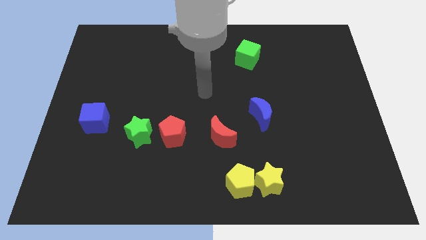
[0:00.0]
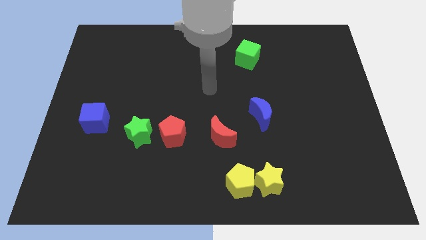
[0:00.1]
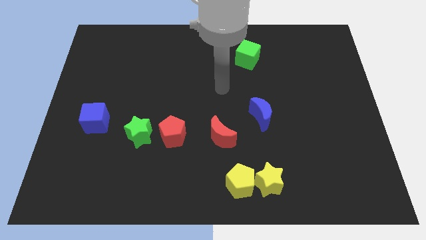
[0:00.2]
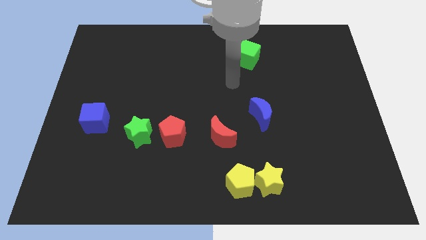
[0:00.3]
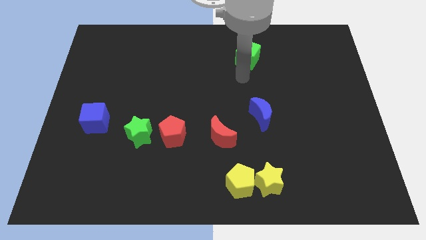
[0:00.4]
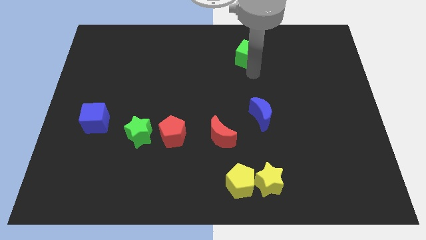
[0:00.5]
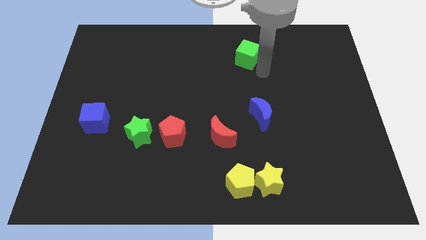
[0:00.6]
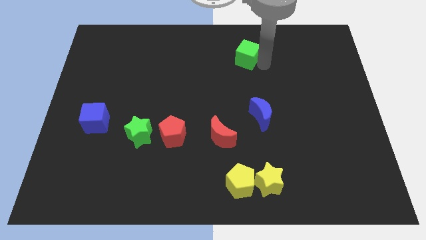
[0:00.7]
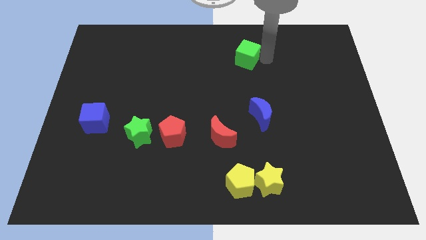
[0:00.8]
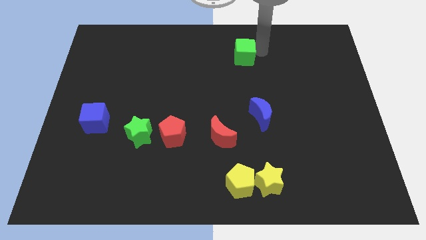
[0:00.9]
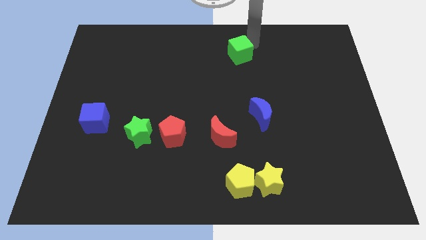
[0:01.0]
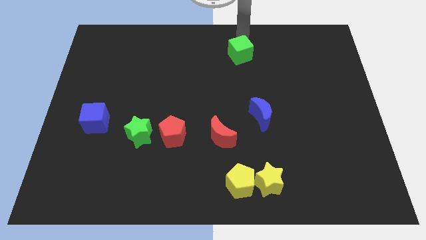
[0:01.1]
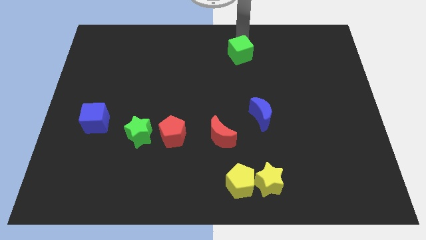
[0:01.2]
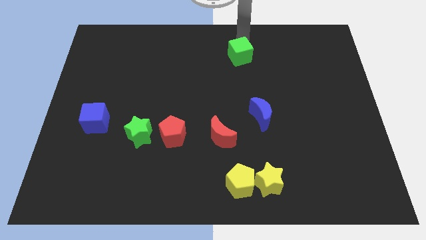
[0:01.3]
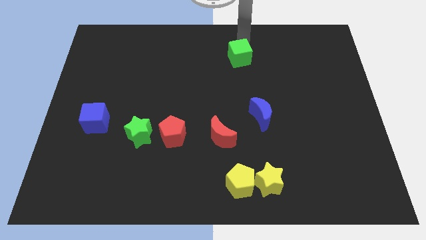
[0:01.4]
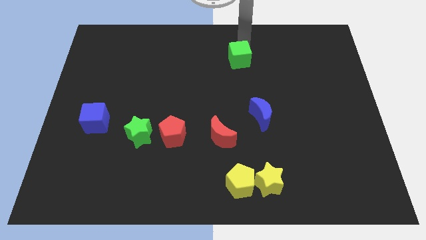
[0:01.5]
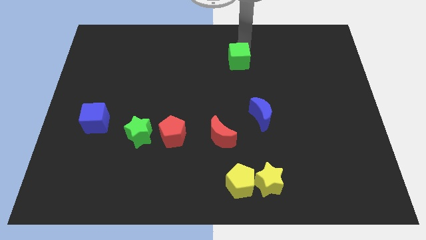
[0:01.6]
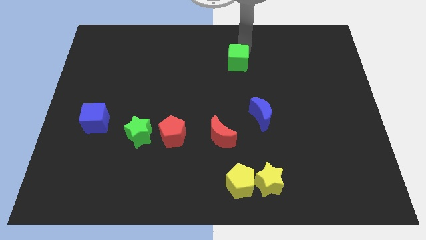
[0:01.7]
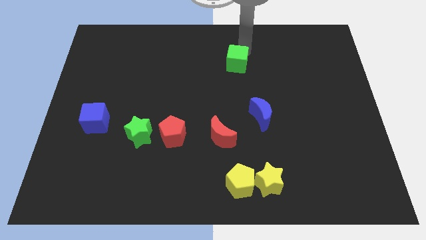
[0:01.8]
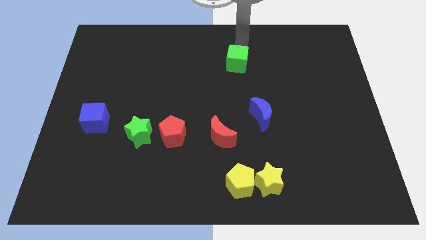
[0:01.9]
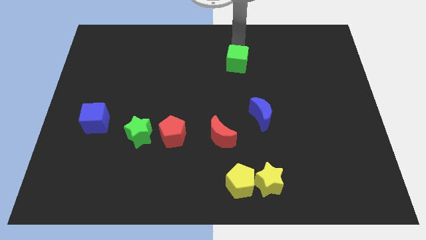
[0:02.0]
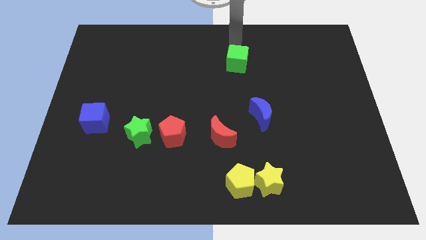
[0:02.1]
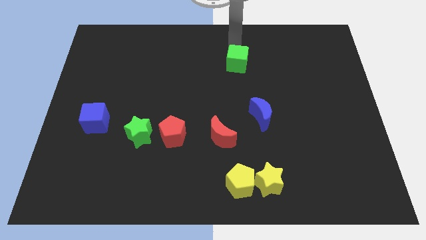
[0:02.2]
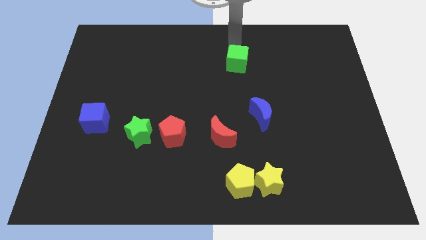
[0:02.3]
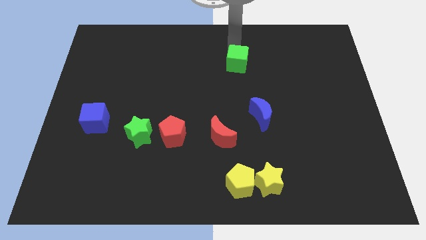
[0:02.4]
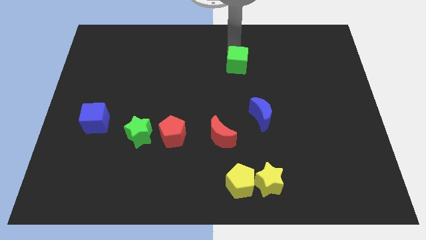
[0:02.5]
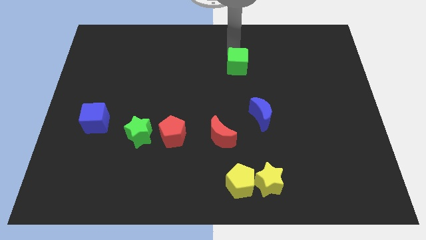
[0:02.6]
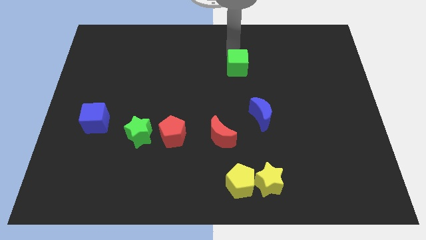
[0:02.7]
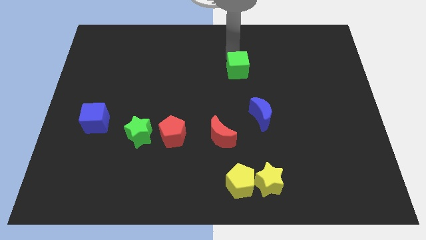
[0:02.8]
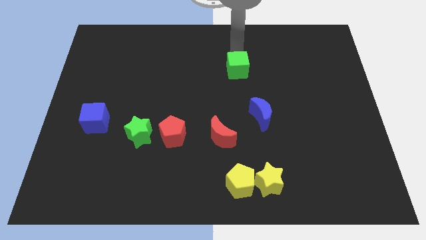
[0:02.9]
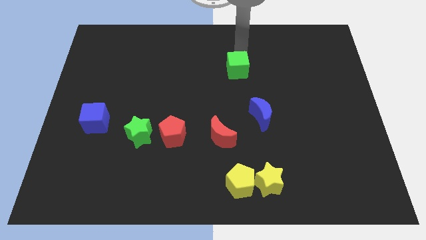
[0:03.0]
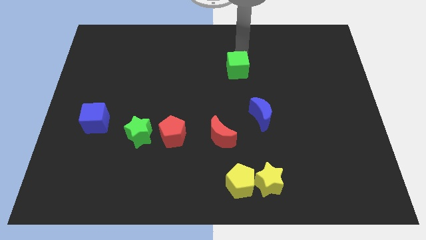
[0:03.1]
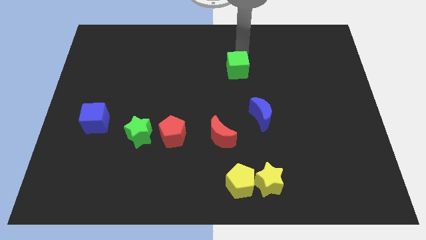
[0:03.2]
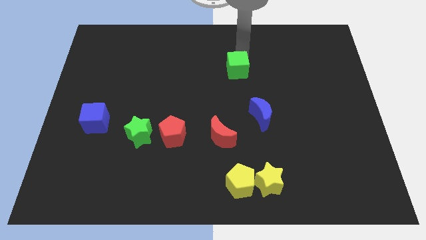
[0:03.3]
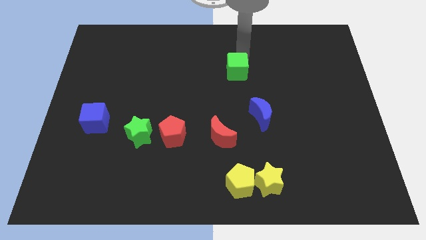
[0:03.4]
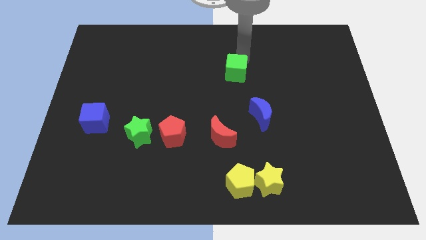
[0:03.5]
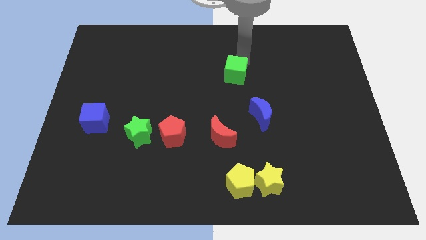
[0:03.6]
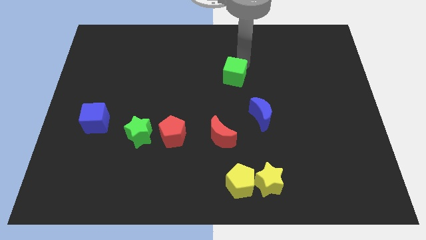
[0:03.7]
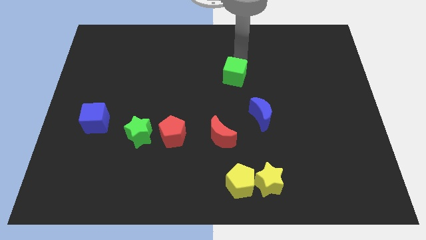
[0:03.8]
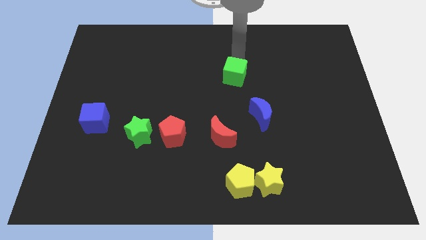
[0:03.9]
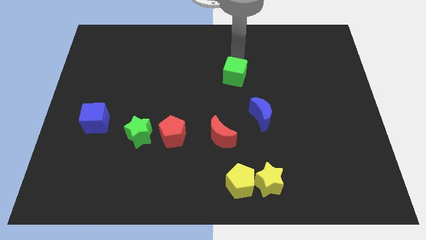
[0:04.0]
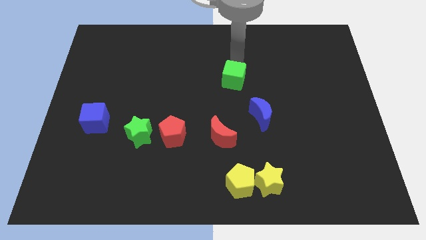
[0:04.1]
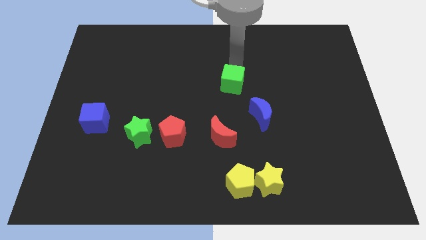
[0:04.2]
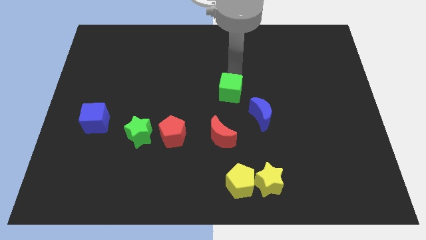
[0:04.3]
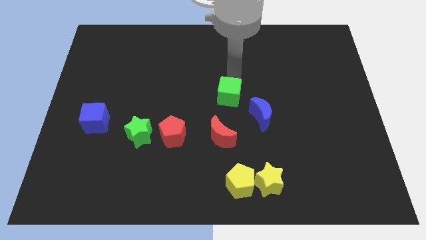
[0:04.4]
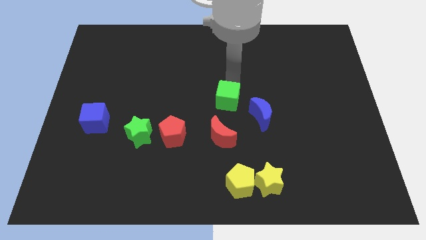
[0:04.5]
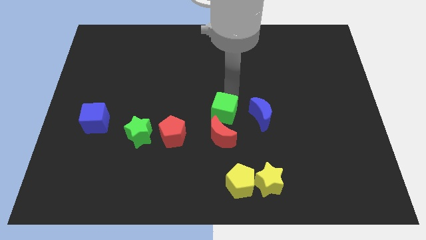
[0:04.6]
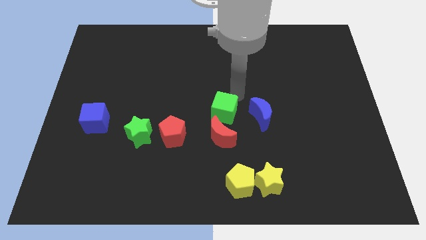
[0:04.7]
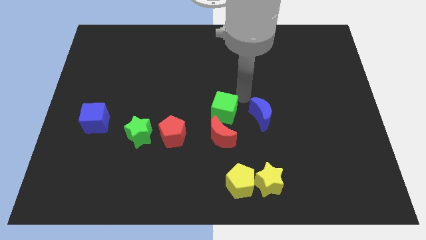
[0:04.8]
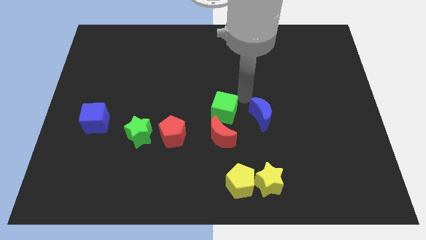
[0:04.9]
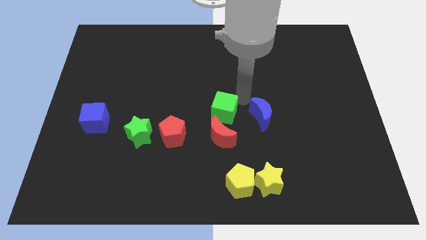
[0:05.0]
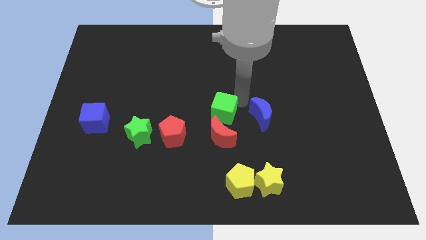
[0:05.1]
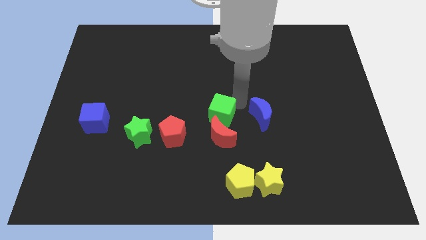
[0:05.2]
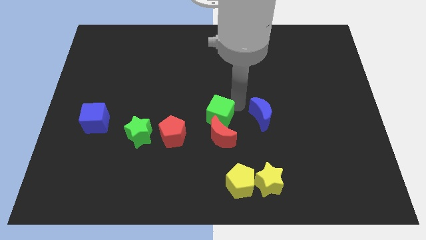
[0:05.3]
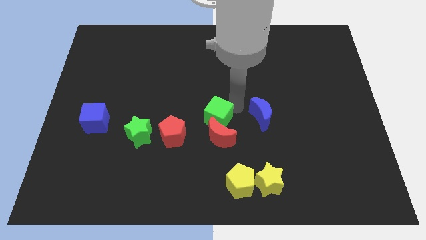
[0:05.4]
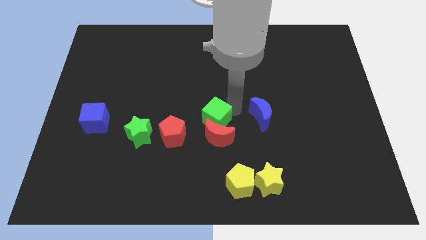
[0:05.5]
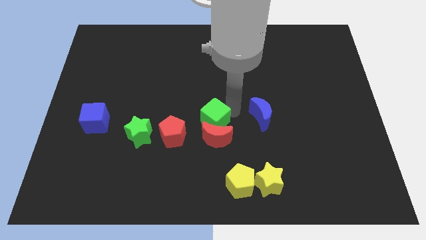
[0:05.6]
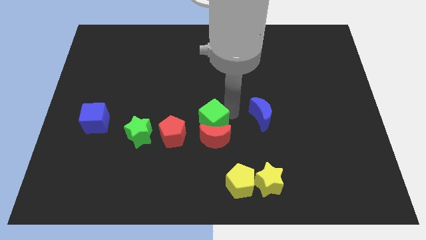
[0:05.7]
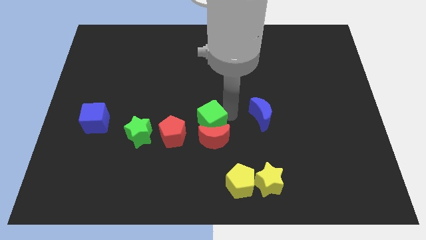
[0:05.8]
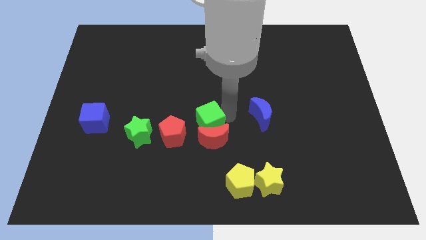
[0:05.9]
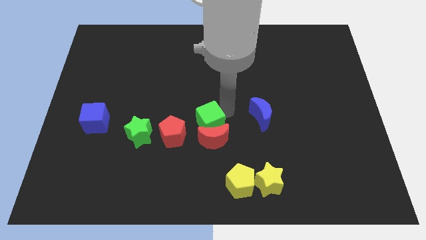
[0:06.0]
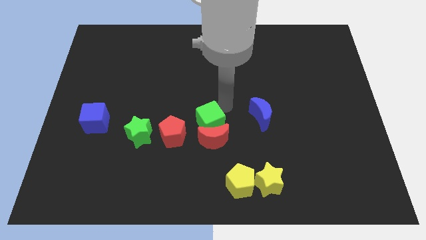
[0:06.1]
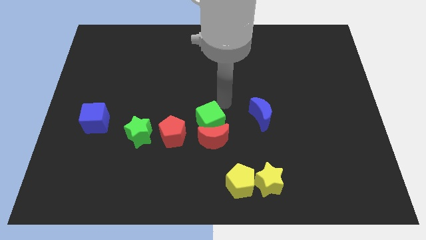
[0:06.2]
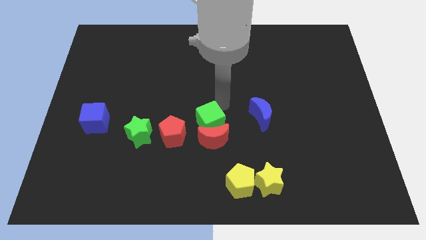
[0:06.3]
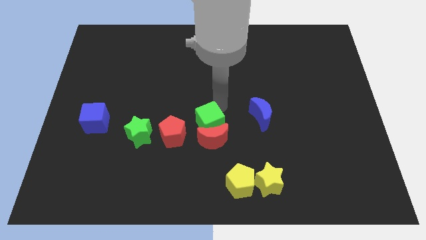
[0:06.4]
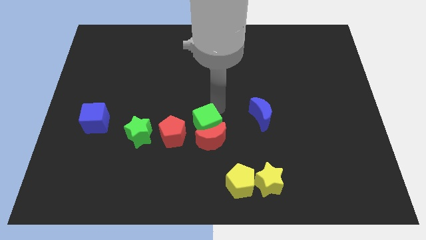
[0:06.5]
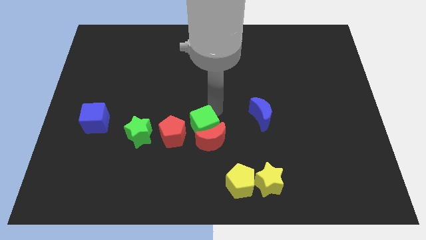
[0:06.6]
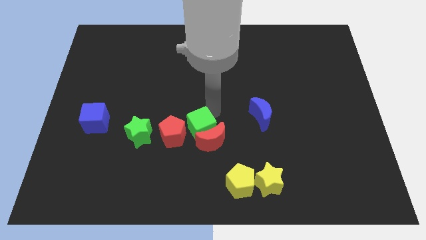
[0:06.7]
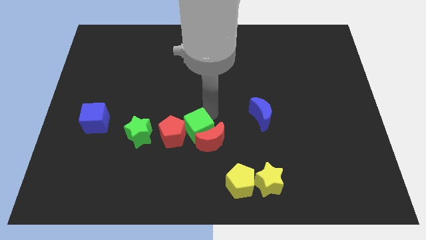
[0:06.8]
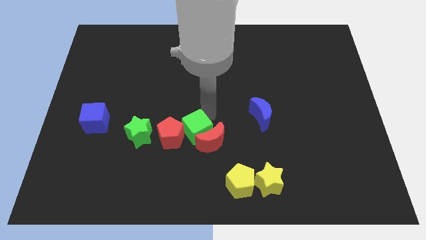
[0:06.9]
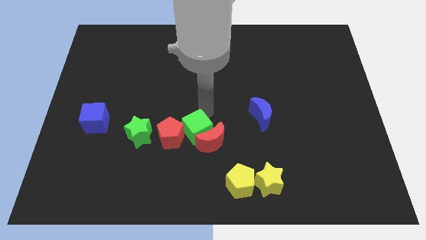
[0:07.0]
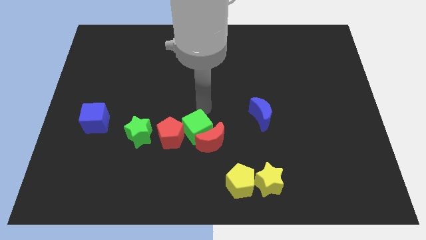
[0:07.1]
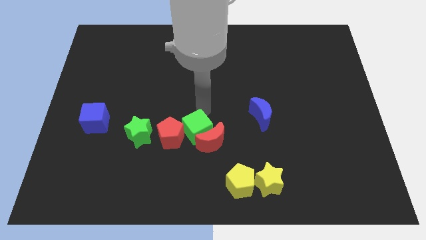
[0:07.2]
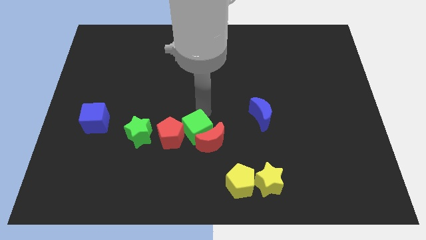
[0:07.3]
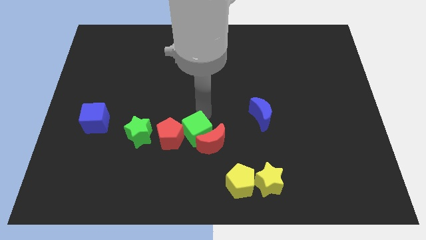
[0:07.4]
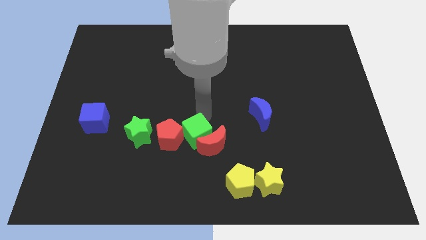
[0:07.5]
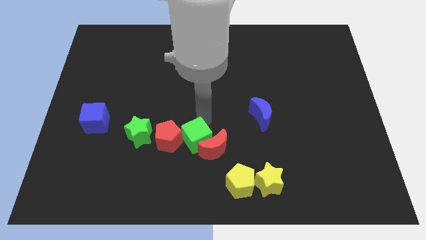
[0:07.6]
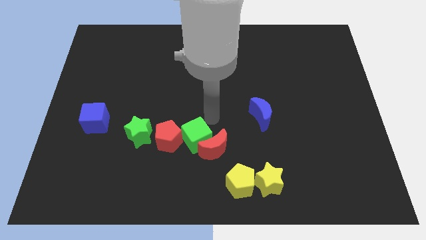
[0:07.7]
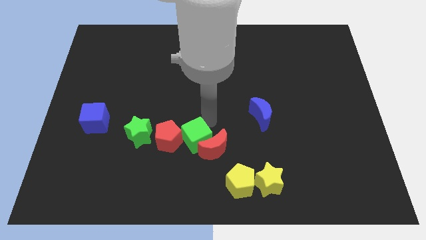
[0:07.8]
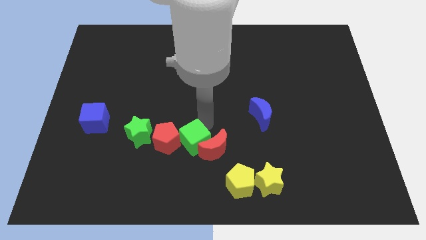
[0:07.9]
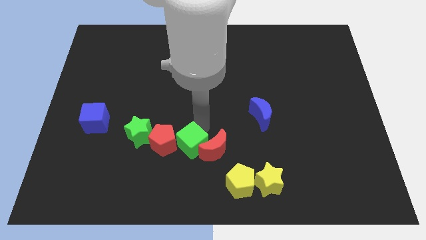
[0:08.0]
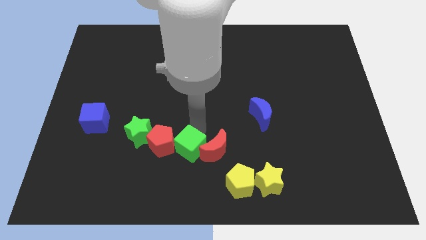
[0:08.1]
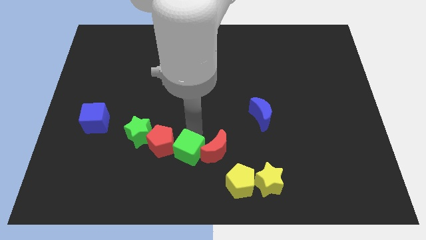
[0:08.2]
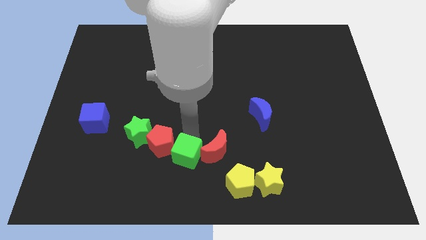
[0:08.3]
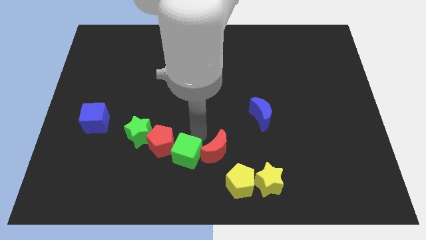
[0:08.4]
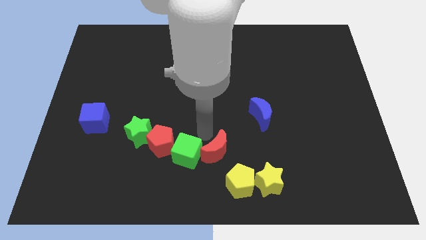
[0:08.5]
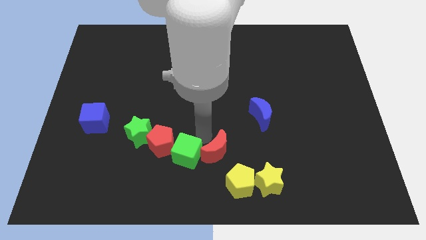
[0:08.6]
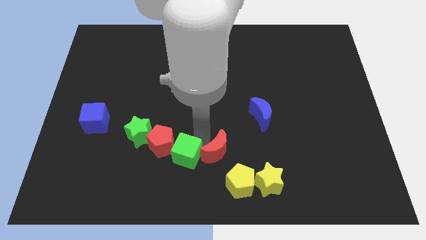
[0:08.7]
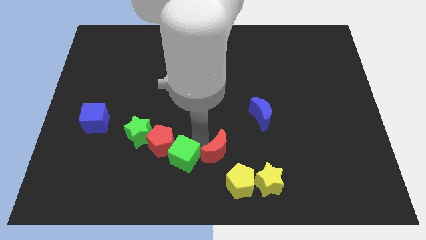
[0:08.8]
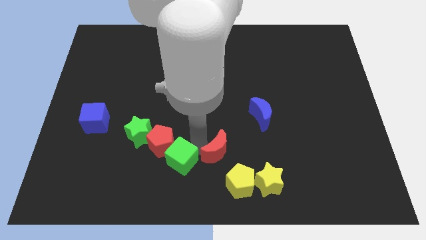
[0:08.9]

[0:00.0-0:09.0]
push the green cube to the bottom of the red pentagon
